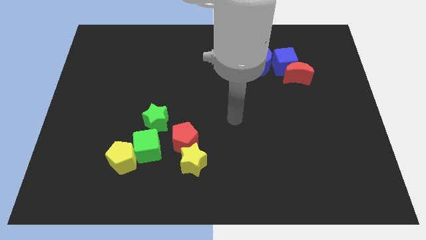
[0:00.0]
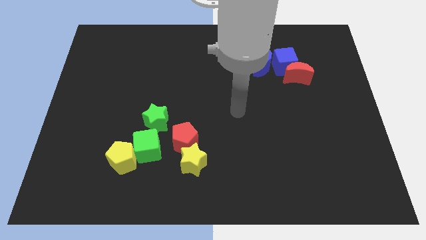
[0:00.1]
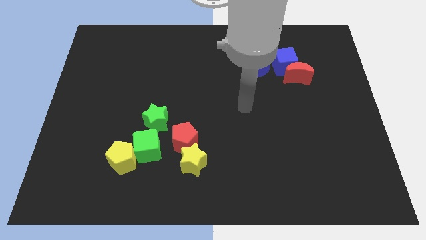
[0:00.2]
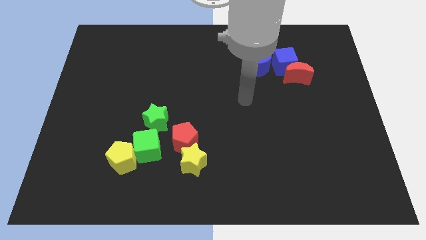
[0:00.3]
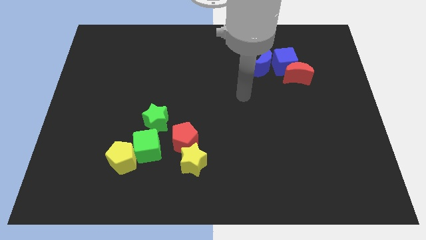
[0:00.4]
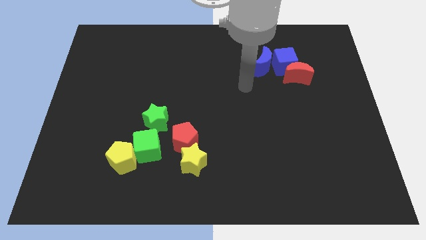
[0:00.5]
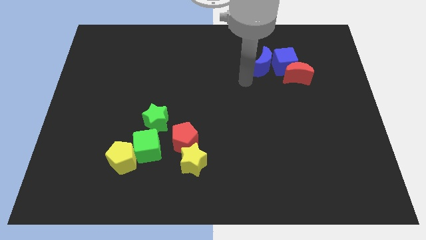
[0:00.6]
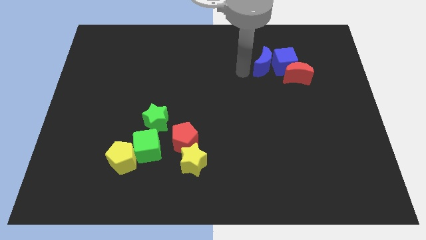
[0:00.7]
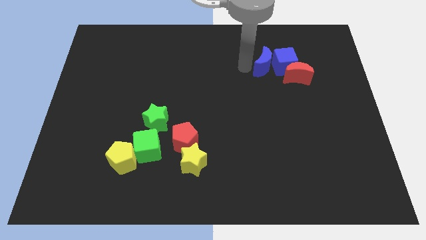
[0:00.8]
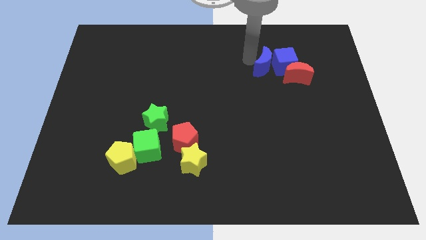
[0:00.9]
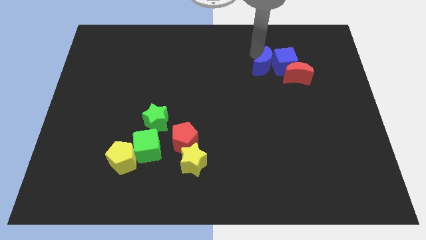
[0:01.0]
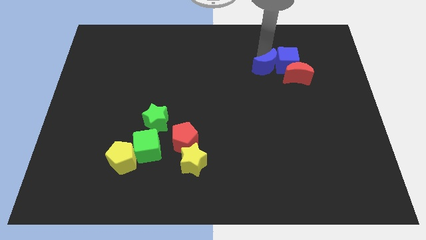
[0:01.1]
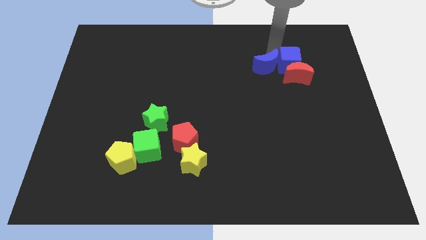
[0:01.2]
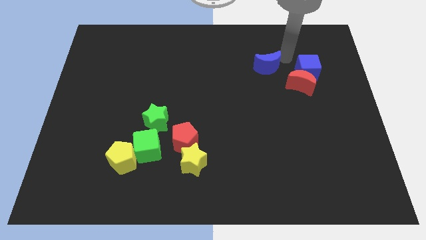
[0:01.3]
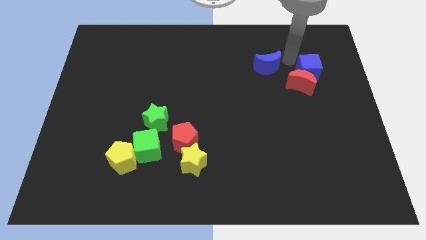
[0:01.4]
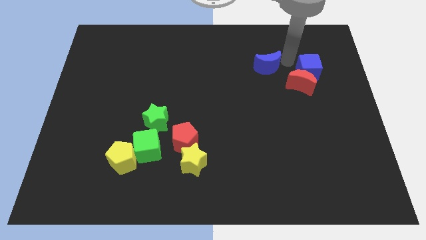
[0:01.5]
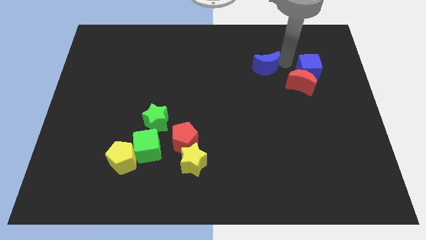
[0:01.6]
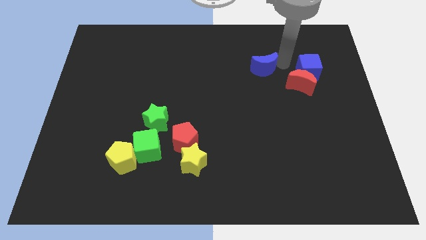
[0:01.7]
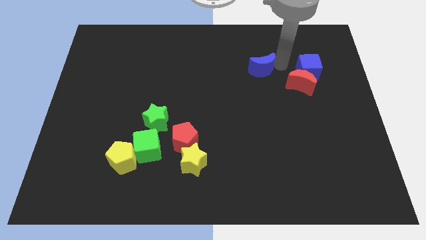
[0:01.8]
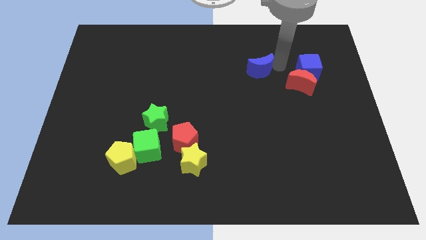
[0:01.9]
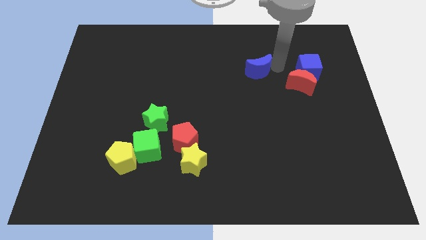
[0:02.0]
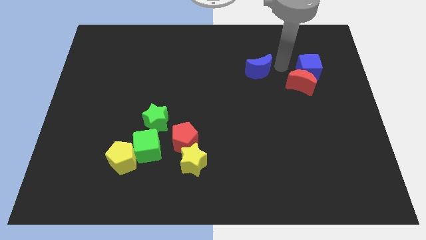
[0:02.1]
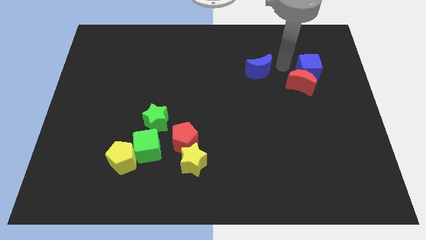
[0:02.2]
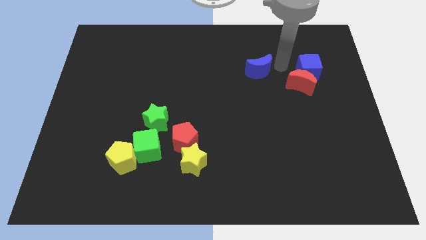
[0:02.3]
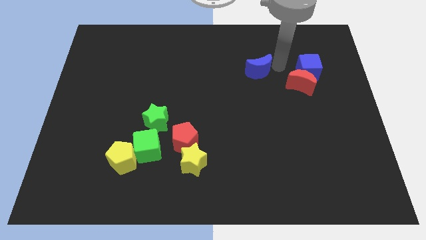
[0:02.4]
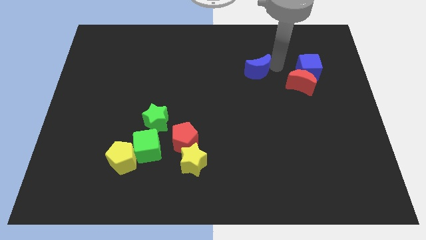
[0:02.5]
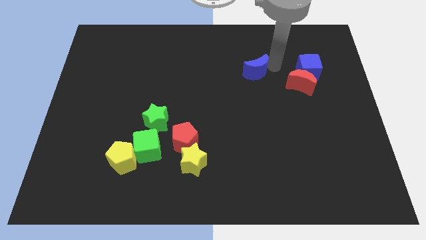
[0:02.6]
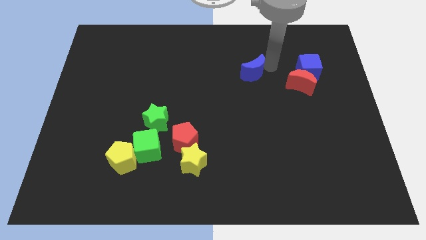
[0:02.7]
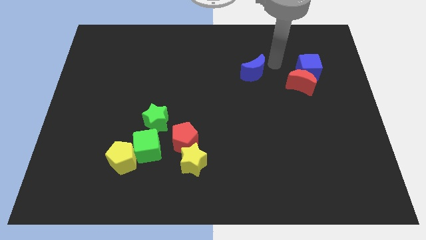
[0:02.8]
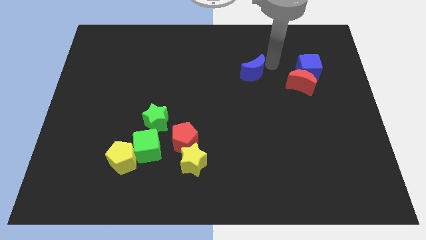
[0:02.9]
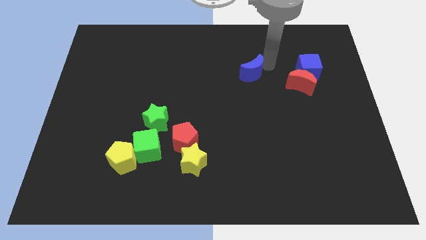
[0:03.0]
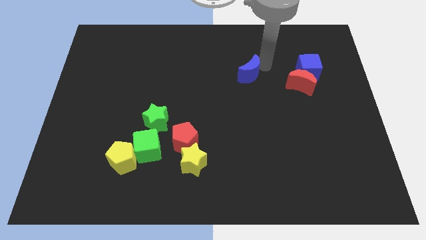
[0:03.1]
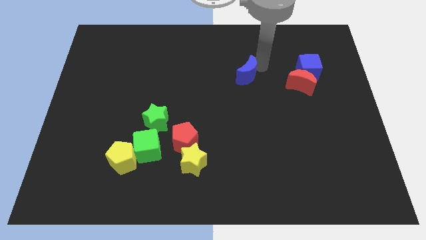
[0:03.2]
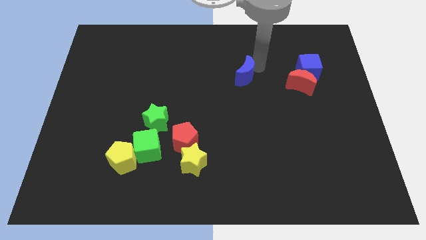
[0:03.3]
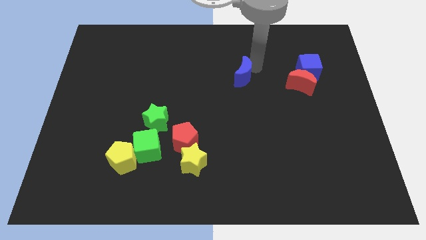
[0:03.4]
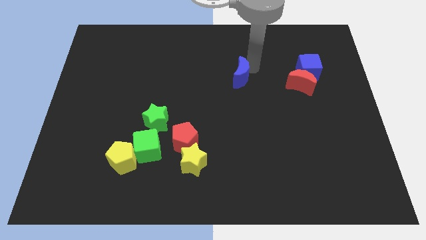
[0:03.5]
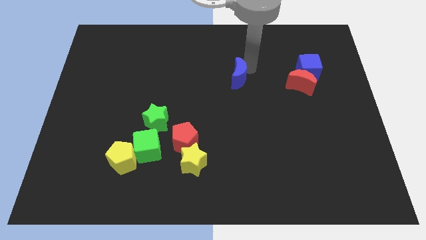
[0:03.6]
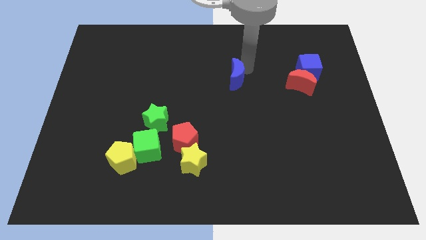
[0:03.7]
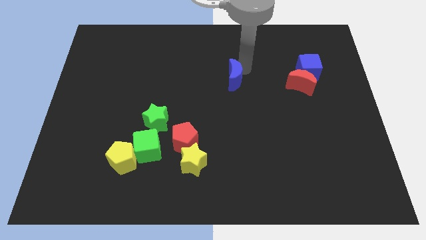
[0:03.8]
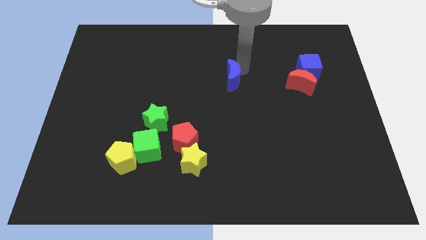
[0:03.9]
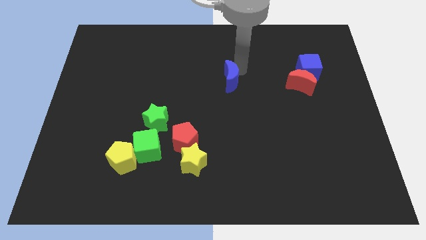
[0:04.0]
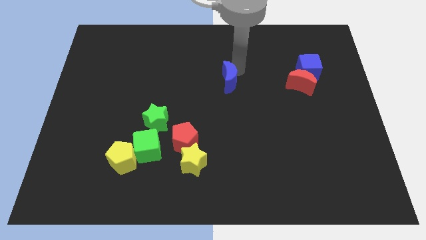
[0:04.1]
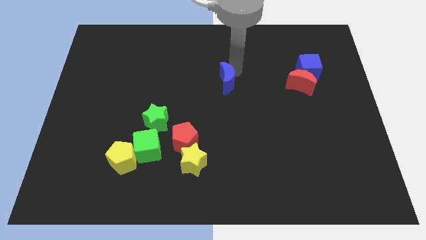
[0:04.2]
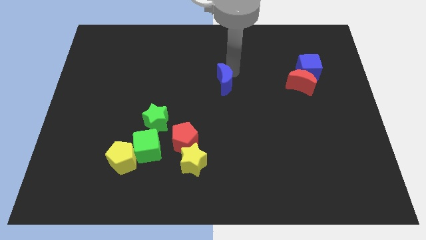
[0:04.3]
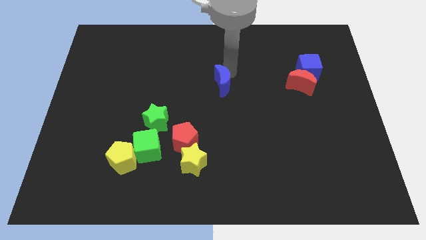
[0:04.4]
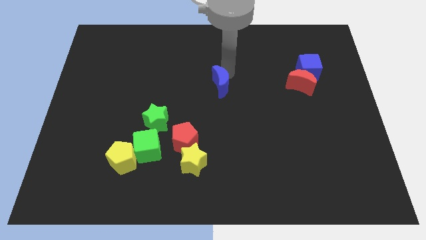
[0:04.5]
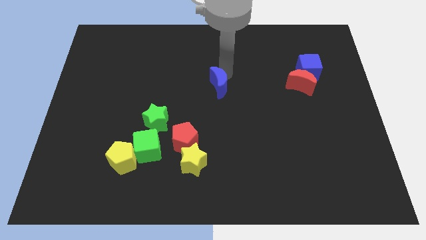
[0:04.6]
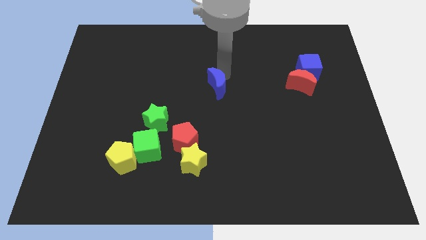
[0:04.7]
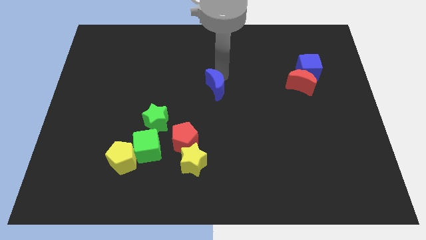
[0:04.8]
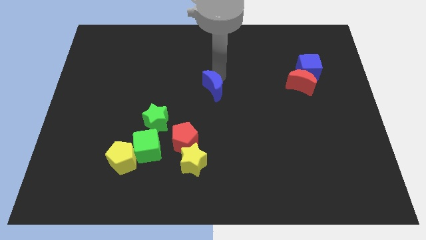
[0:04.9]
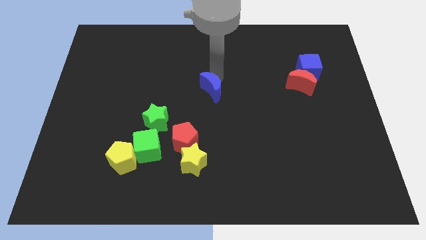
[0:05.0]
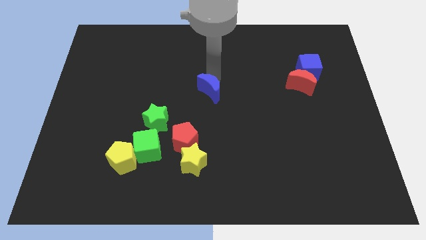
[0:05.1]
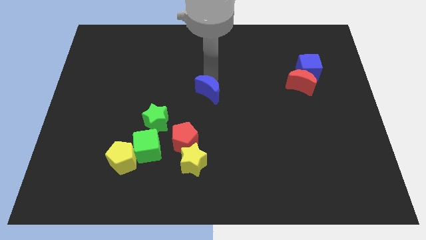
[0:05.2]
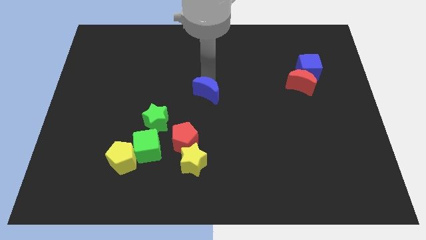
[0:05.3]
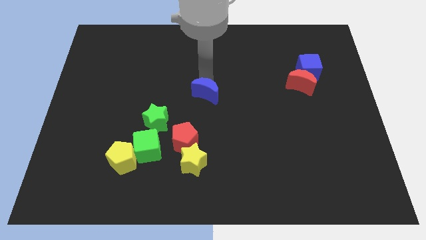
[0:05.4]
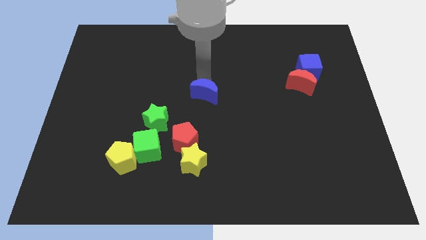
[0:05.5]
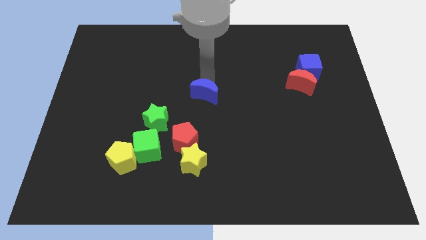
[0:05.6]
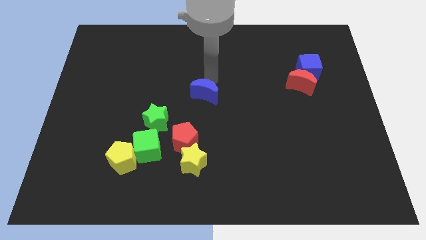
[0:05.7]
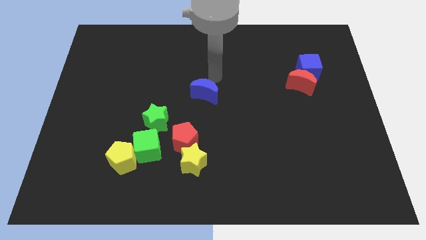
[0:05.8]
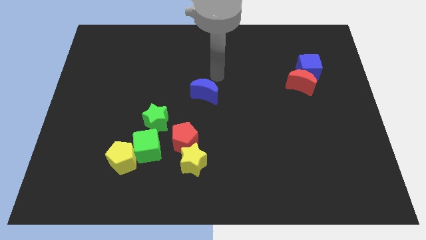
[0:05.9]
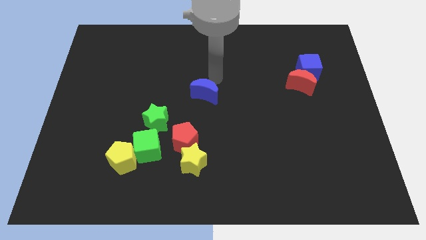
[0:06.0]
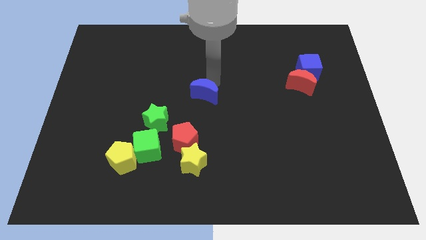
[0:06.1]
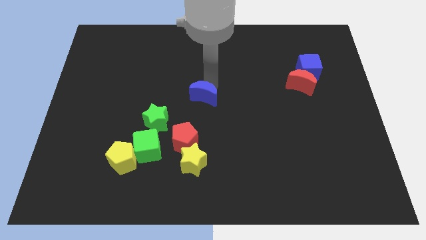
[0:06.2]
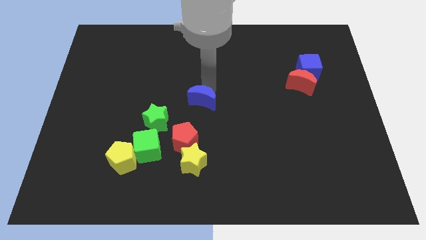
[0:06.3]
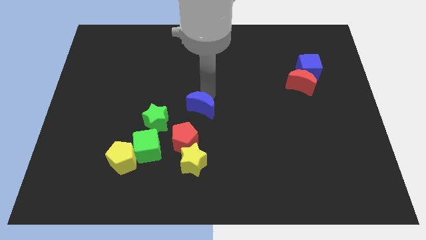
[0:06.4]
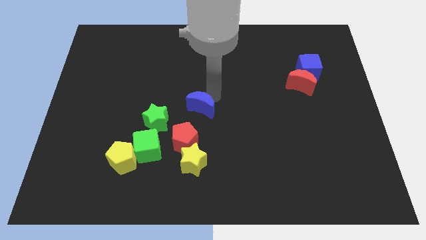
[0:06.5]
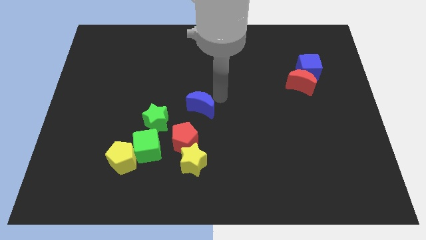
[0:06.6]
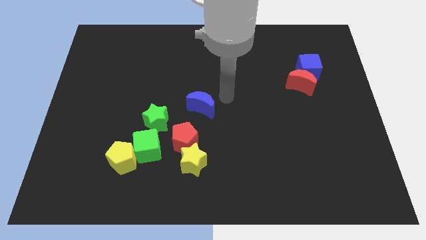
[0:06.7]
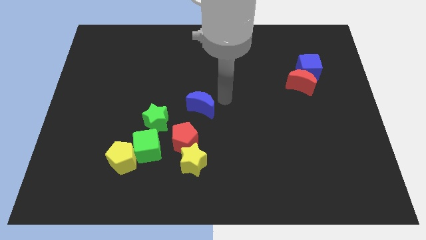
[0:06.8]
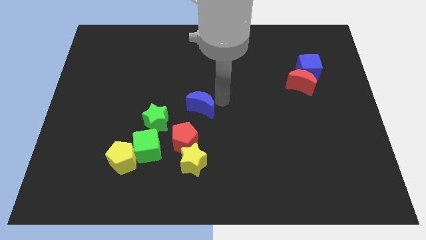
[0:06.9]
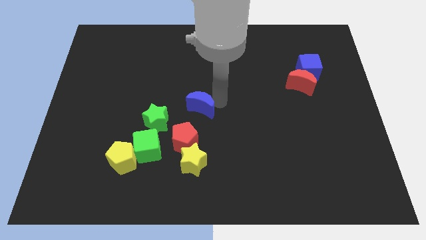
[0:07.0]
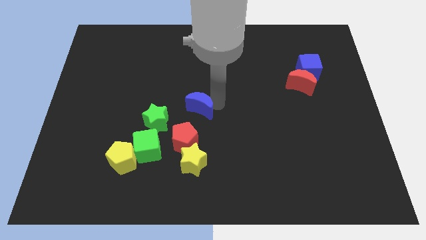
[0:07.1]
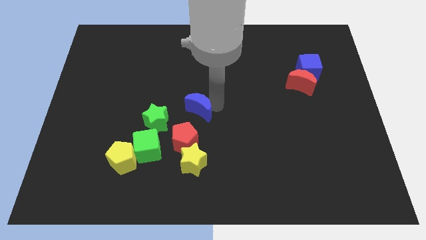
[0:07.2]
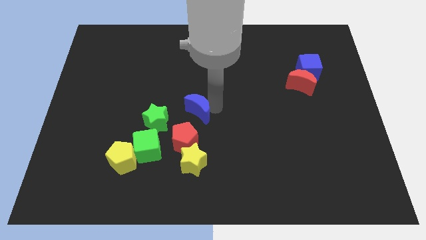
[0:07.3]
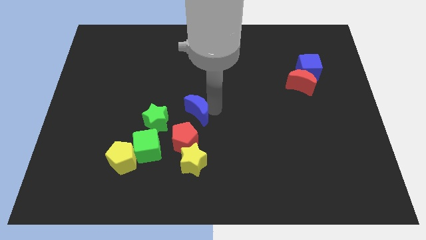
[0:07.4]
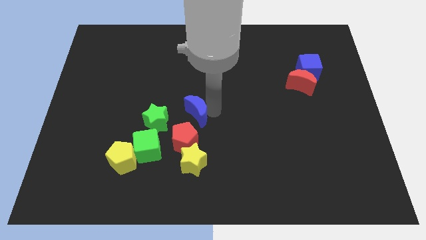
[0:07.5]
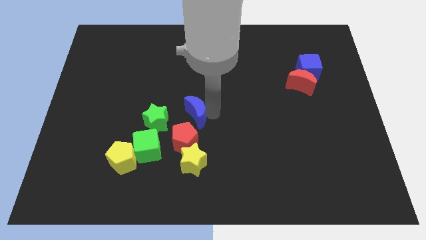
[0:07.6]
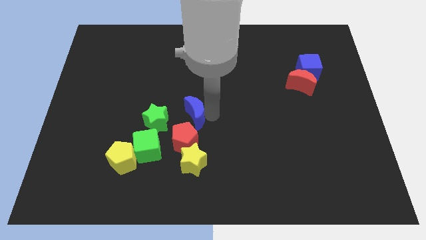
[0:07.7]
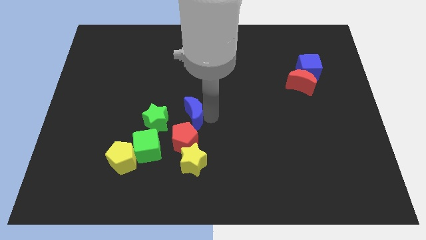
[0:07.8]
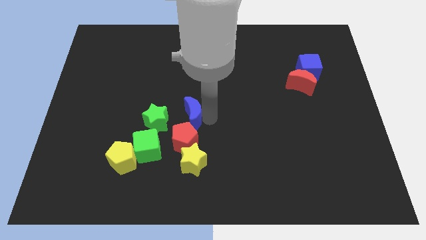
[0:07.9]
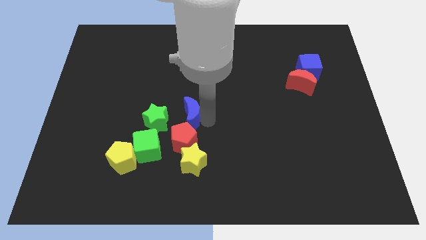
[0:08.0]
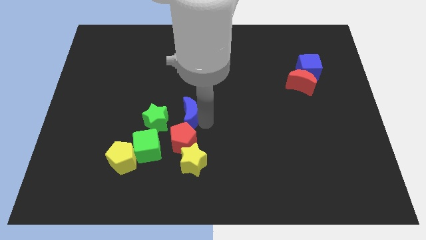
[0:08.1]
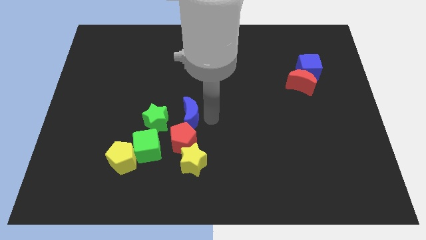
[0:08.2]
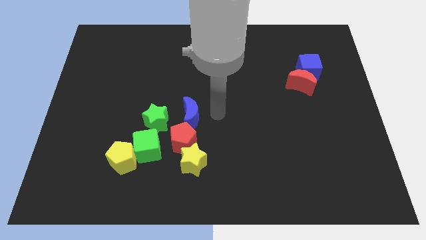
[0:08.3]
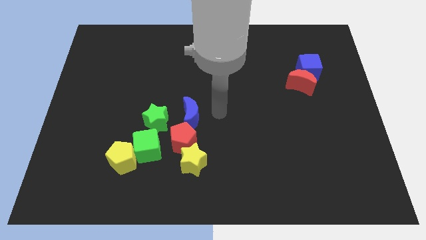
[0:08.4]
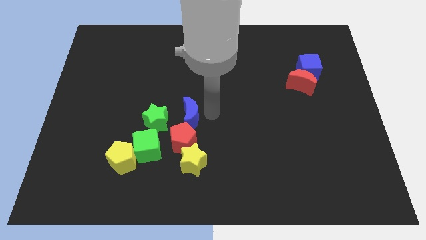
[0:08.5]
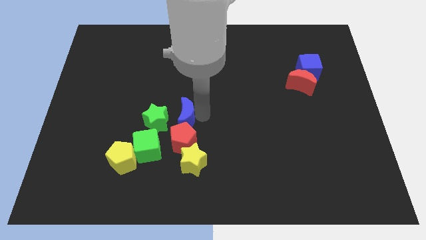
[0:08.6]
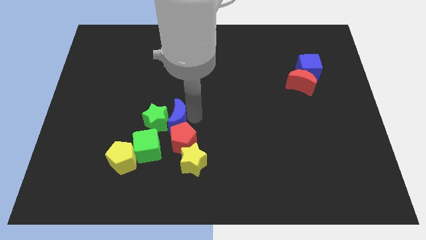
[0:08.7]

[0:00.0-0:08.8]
push the blue moon to the green star
